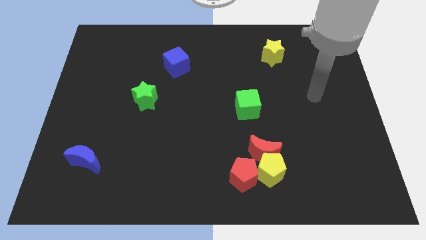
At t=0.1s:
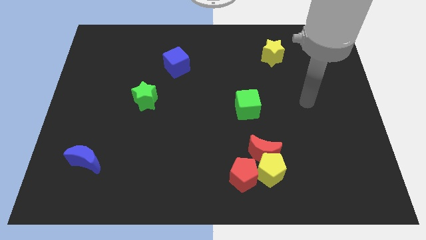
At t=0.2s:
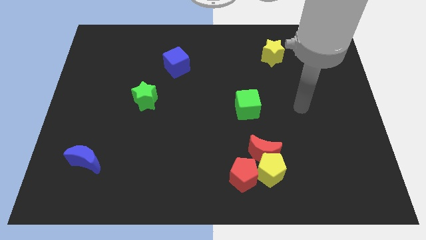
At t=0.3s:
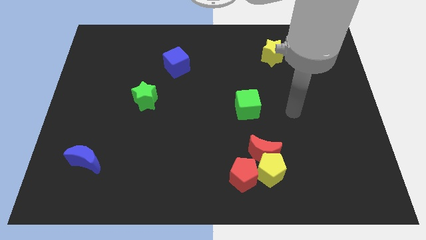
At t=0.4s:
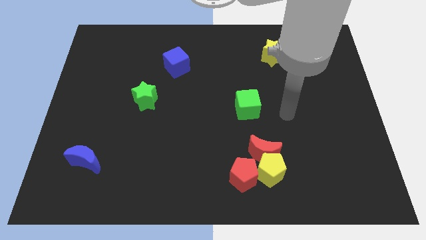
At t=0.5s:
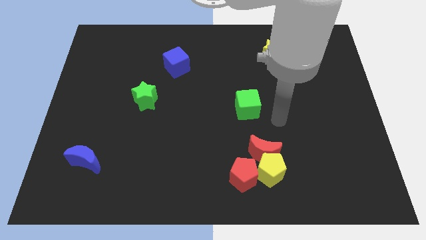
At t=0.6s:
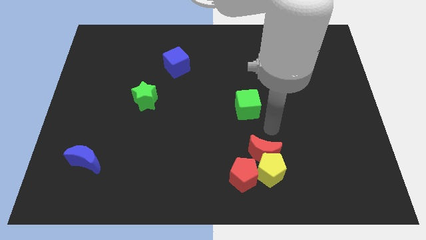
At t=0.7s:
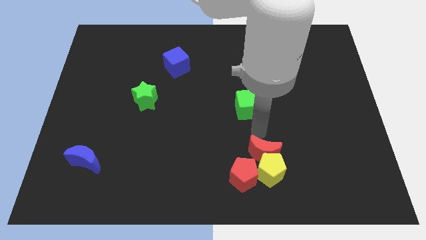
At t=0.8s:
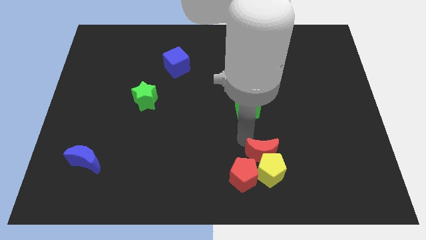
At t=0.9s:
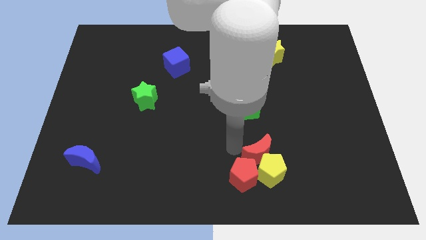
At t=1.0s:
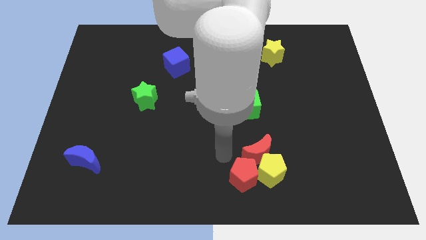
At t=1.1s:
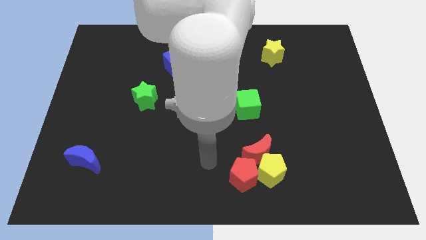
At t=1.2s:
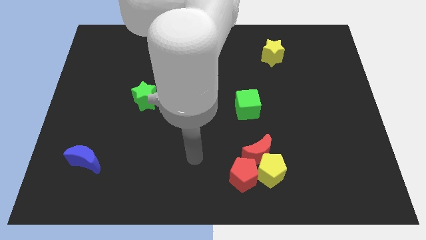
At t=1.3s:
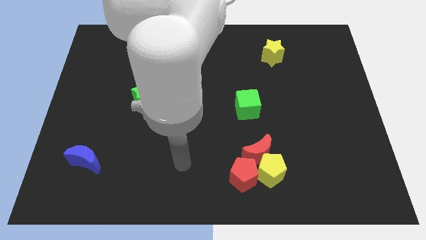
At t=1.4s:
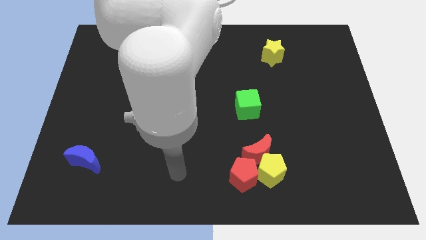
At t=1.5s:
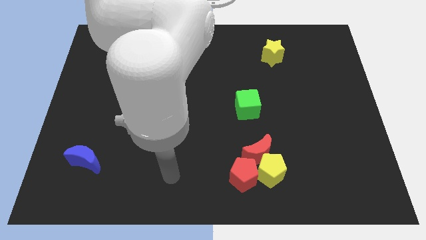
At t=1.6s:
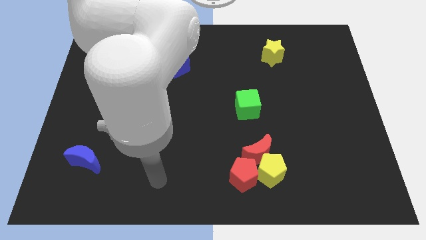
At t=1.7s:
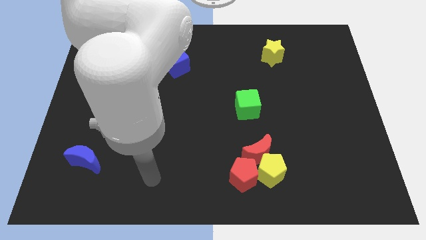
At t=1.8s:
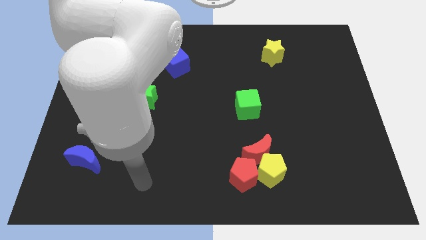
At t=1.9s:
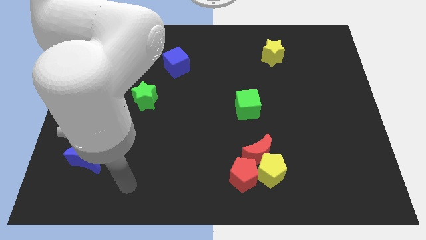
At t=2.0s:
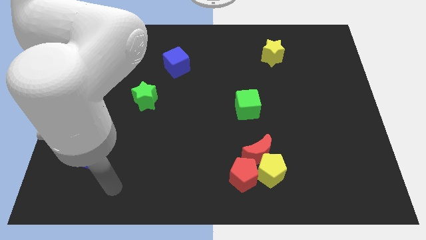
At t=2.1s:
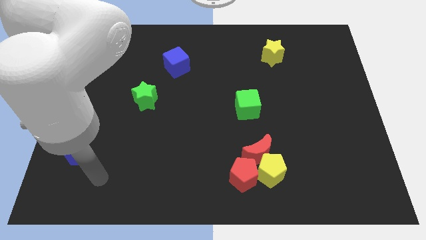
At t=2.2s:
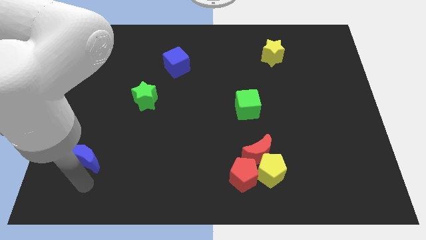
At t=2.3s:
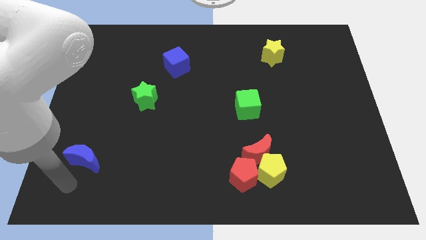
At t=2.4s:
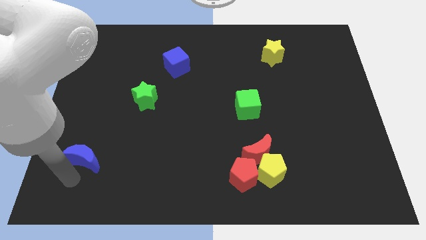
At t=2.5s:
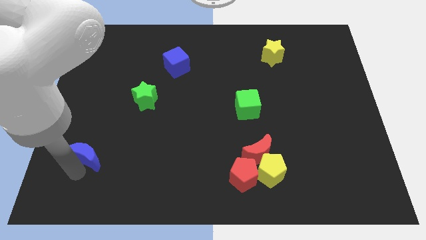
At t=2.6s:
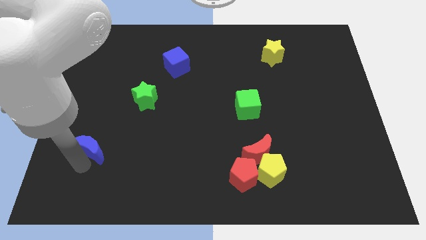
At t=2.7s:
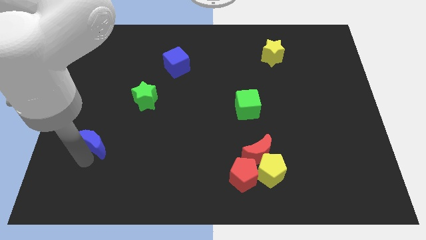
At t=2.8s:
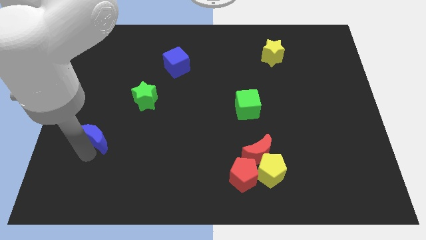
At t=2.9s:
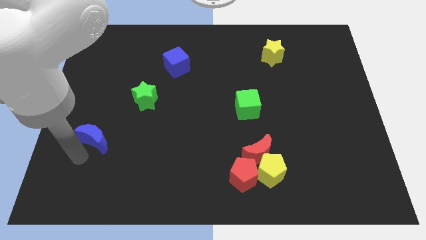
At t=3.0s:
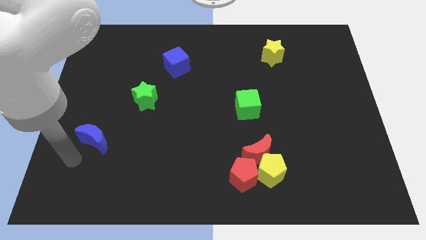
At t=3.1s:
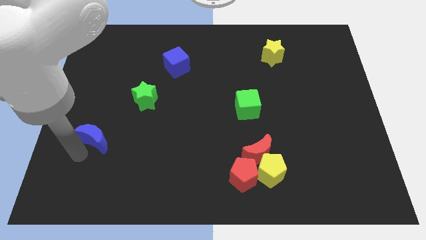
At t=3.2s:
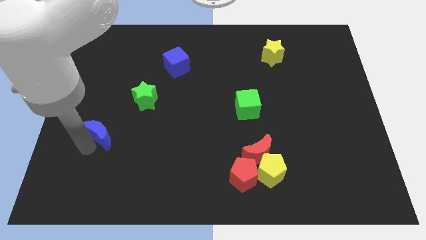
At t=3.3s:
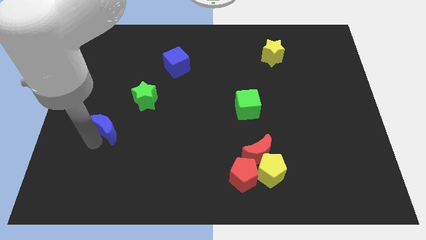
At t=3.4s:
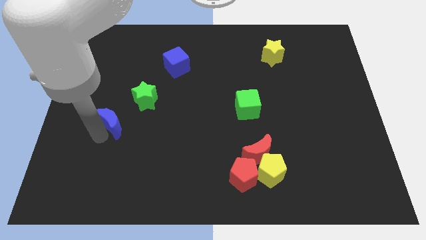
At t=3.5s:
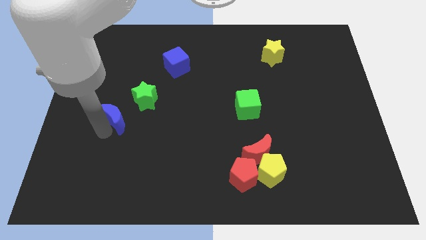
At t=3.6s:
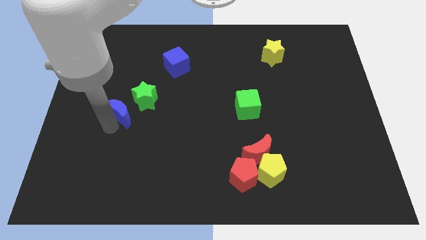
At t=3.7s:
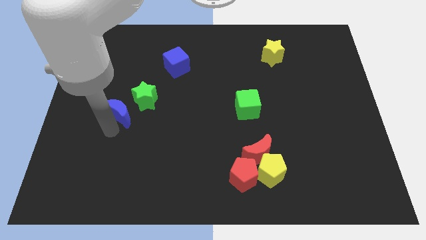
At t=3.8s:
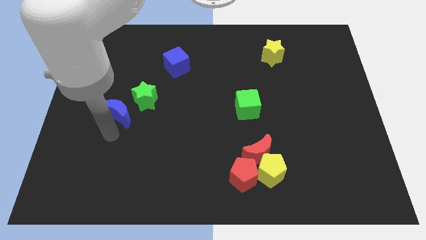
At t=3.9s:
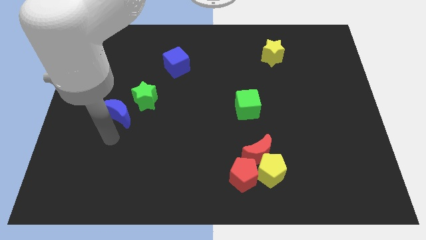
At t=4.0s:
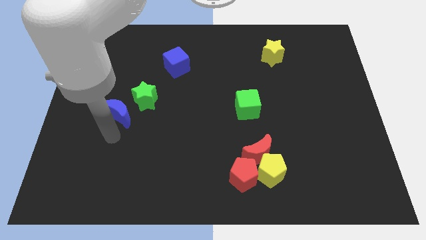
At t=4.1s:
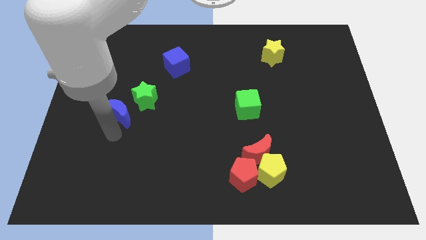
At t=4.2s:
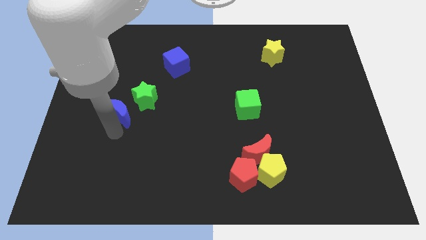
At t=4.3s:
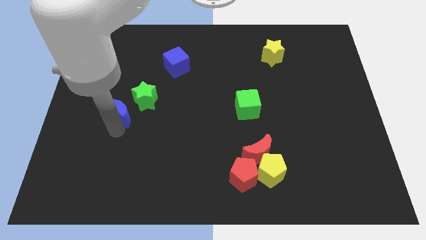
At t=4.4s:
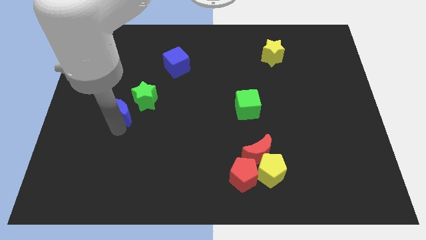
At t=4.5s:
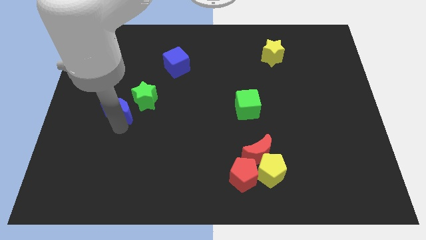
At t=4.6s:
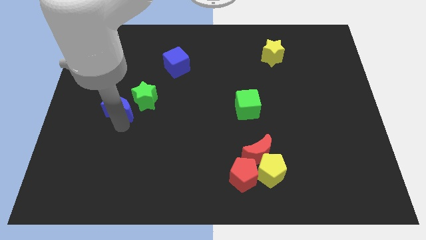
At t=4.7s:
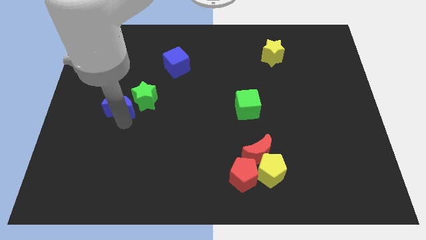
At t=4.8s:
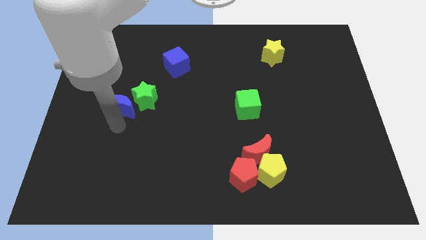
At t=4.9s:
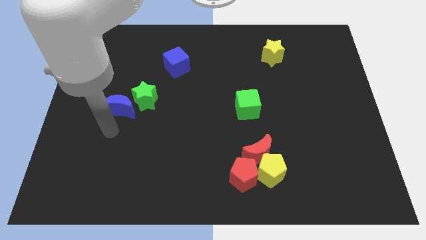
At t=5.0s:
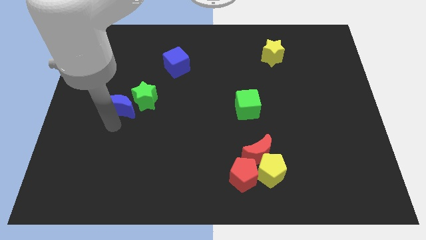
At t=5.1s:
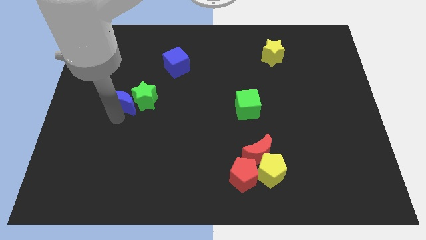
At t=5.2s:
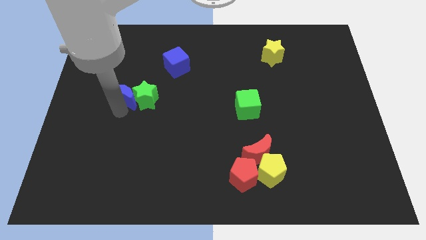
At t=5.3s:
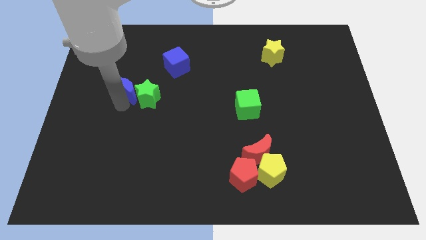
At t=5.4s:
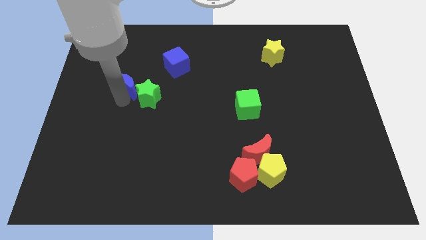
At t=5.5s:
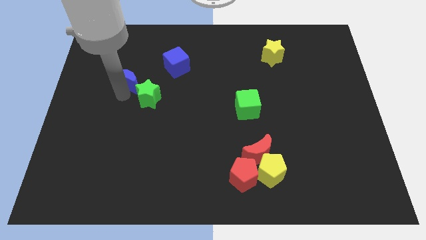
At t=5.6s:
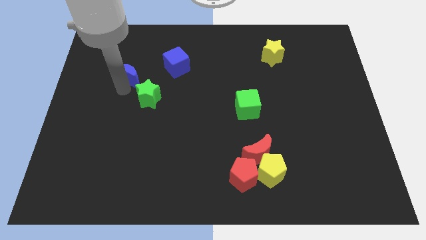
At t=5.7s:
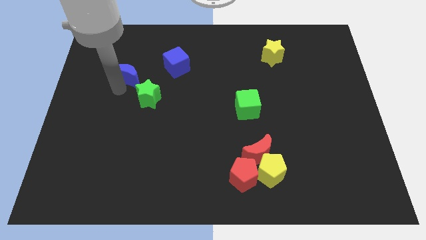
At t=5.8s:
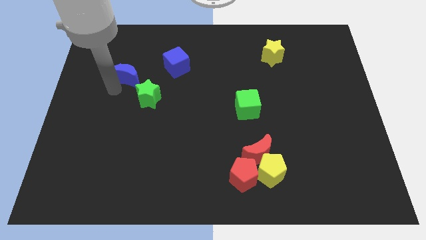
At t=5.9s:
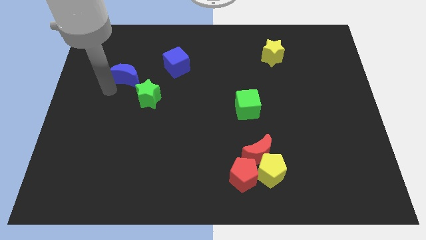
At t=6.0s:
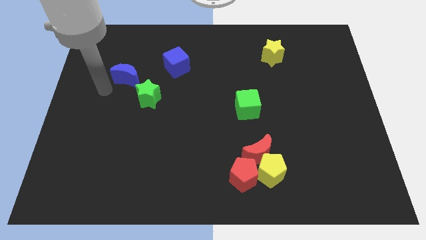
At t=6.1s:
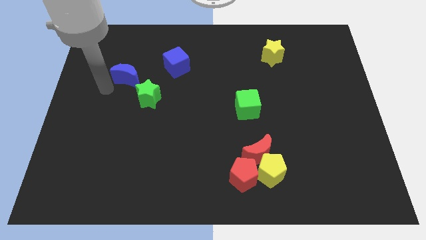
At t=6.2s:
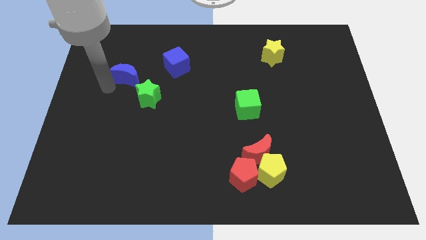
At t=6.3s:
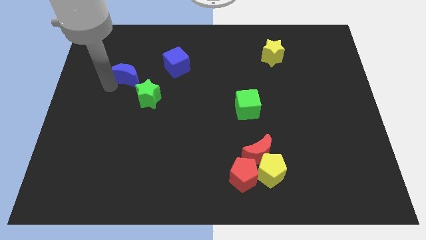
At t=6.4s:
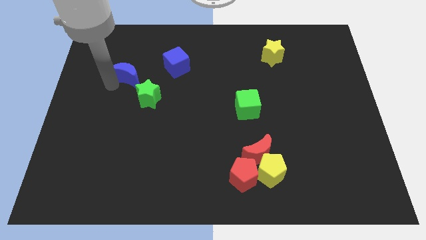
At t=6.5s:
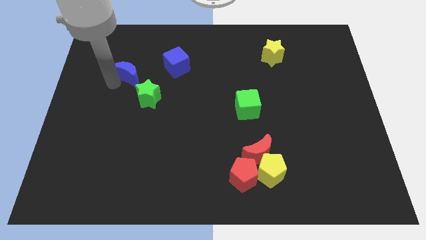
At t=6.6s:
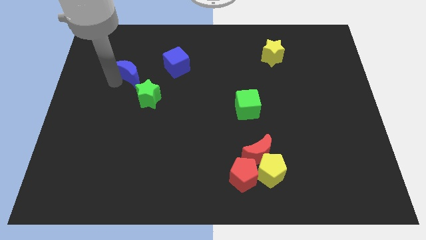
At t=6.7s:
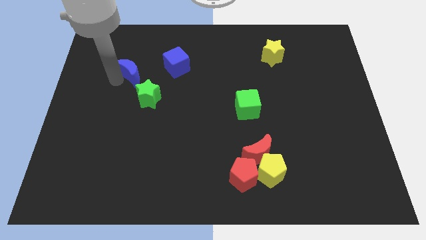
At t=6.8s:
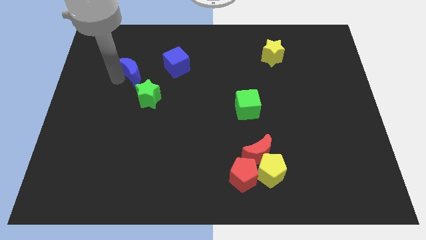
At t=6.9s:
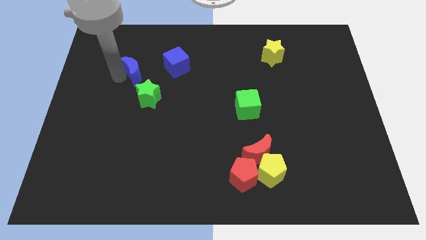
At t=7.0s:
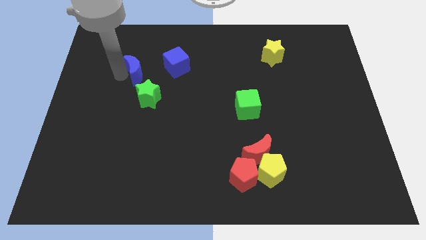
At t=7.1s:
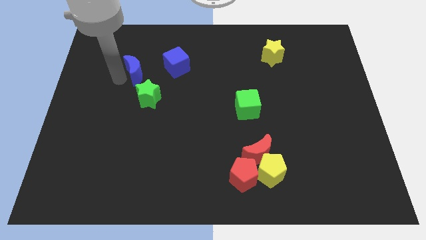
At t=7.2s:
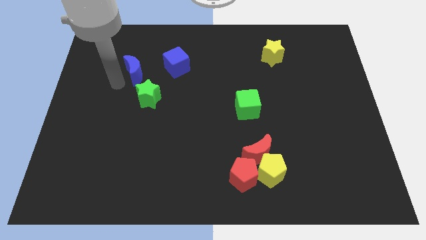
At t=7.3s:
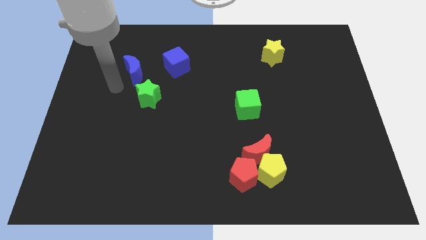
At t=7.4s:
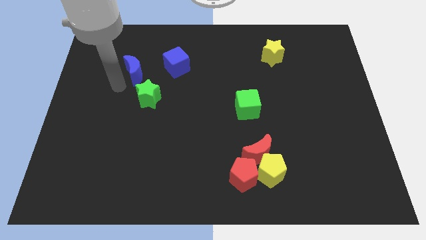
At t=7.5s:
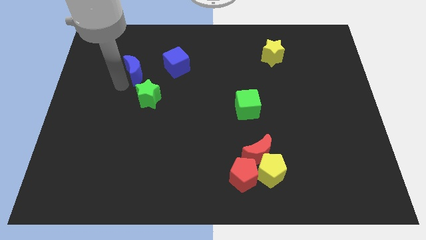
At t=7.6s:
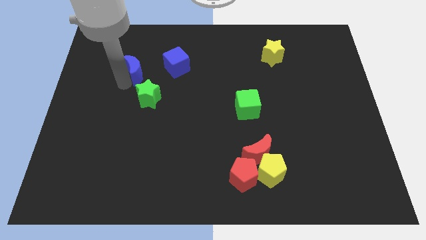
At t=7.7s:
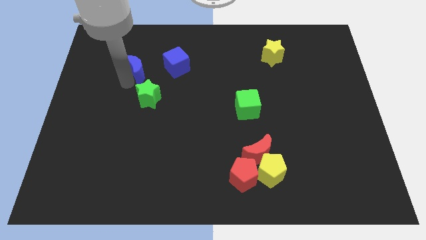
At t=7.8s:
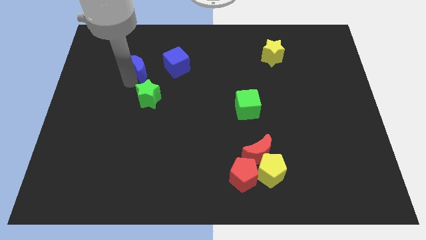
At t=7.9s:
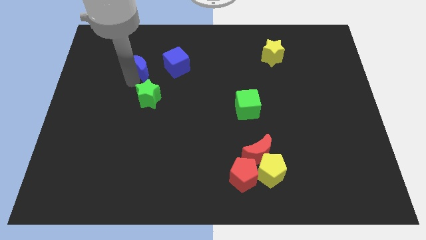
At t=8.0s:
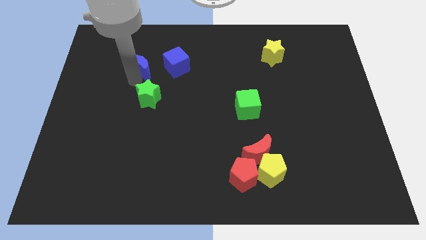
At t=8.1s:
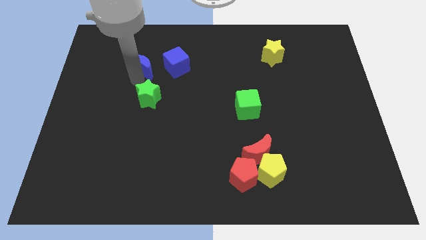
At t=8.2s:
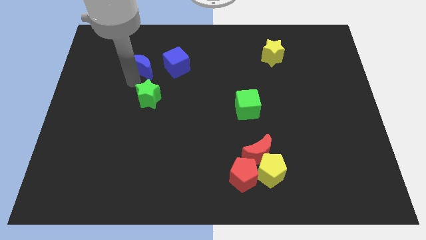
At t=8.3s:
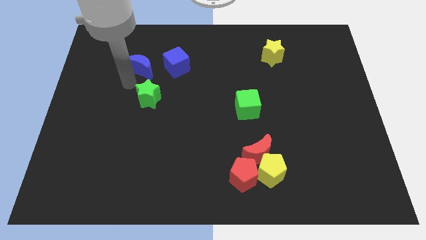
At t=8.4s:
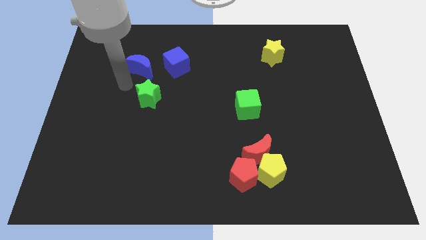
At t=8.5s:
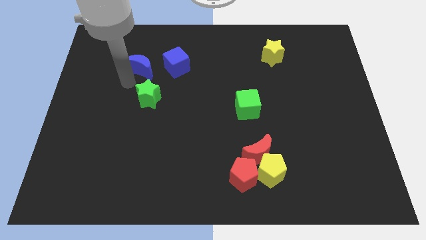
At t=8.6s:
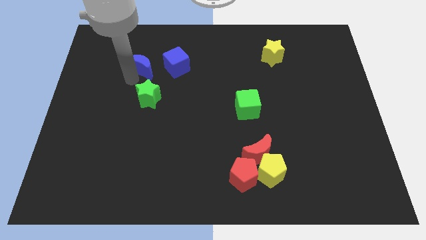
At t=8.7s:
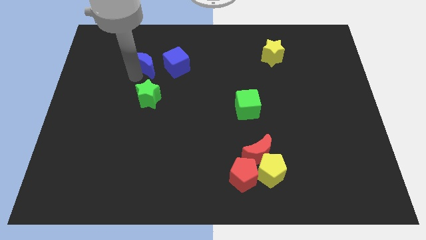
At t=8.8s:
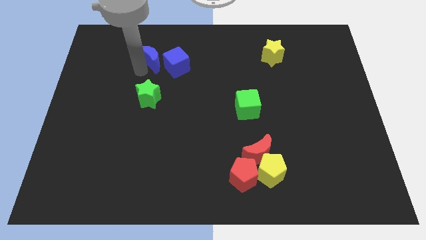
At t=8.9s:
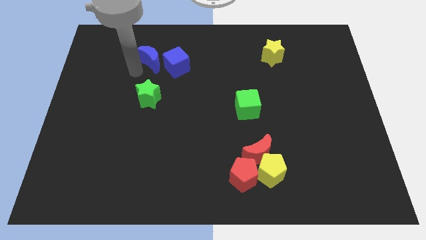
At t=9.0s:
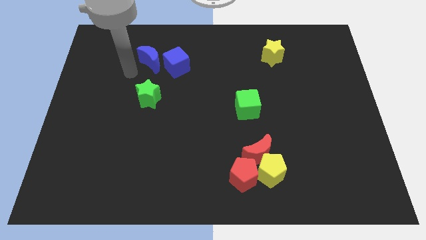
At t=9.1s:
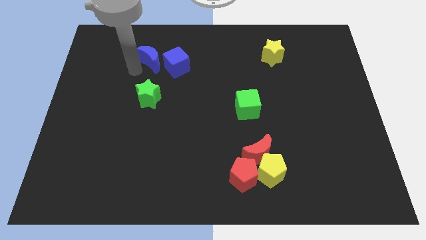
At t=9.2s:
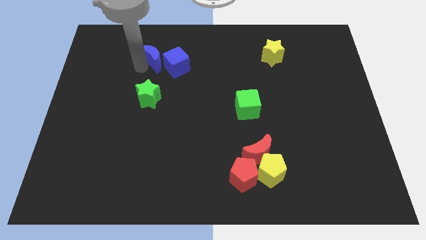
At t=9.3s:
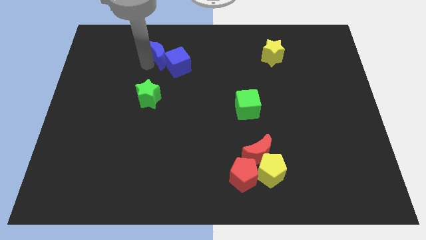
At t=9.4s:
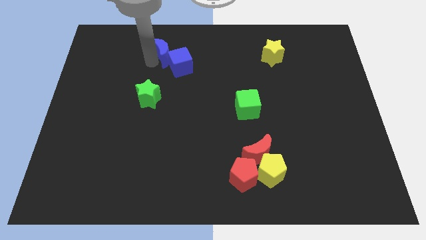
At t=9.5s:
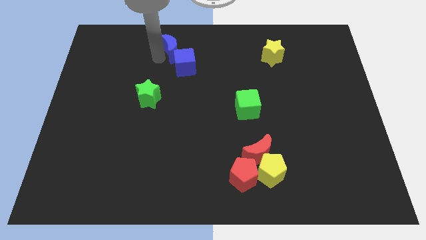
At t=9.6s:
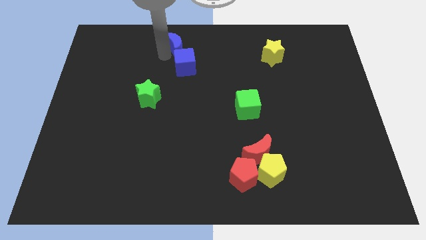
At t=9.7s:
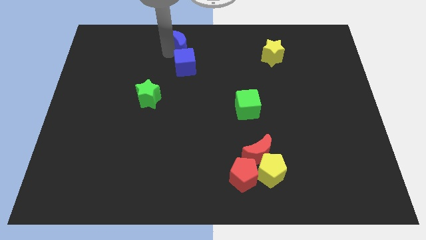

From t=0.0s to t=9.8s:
put the blue moon to the towards your base
